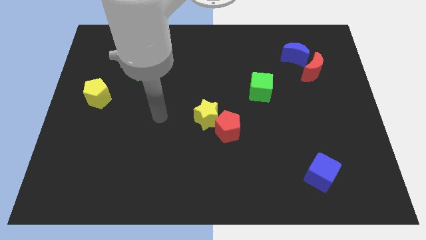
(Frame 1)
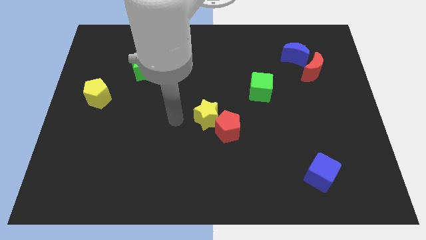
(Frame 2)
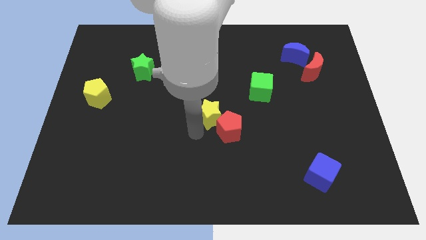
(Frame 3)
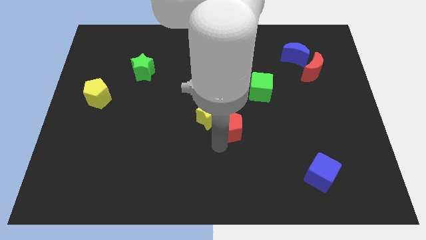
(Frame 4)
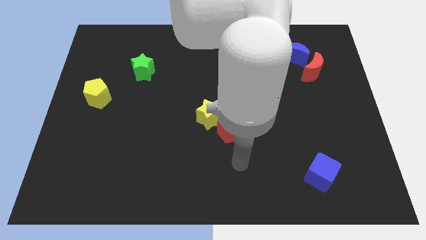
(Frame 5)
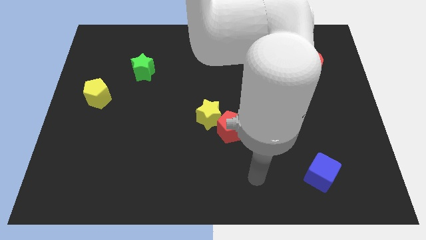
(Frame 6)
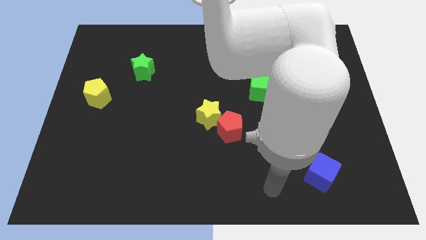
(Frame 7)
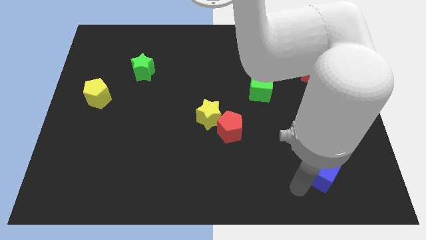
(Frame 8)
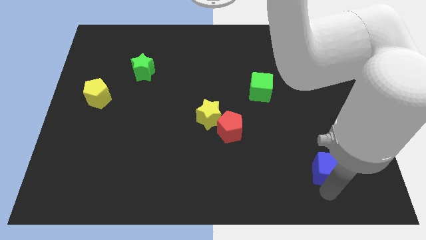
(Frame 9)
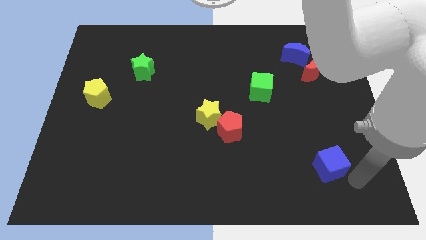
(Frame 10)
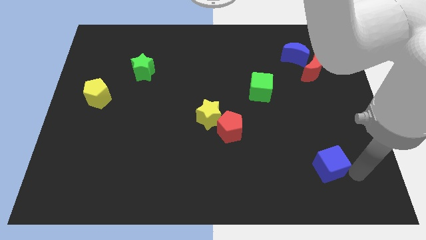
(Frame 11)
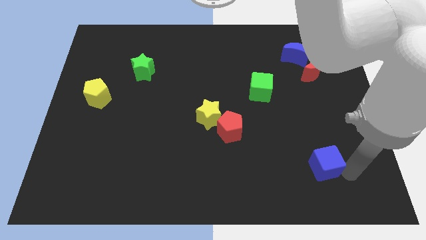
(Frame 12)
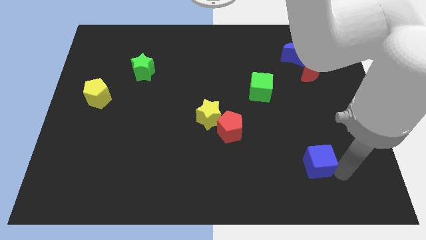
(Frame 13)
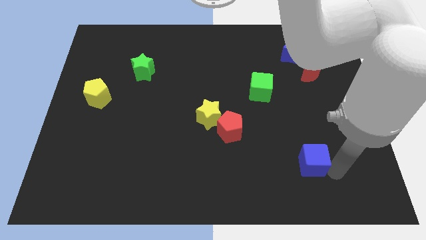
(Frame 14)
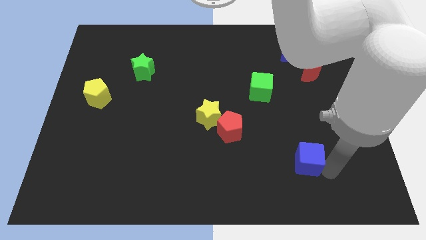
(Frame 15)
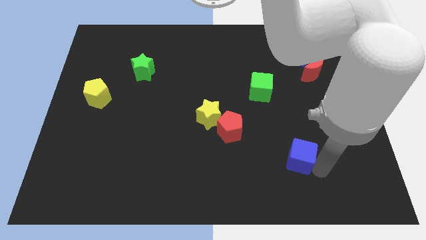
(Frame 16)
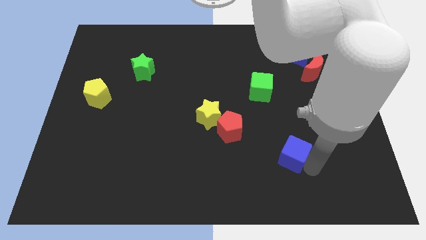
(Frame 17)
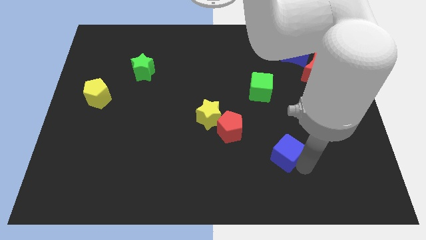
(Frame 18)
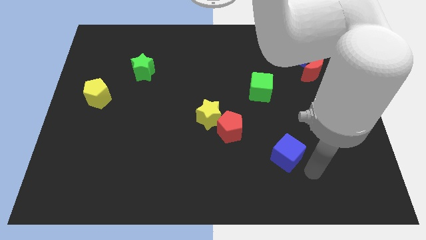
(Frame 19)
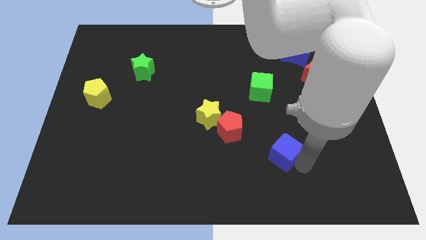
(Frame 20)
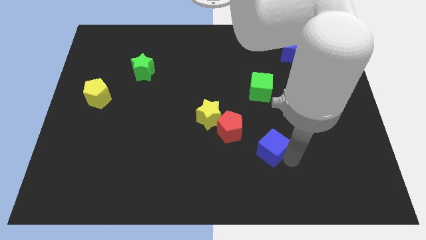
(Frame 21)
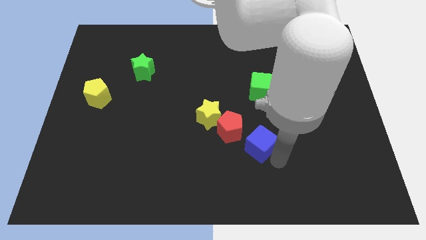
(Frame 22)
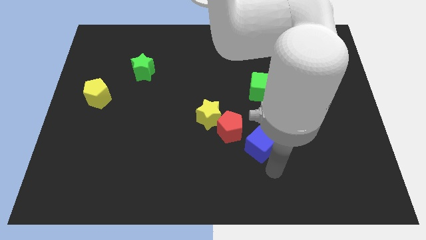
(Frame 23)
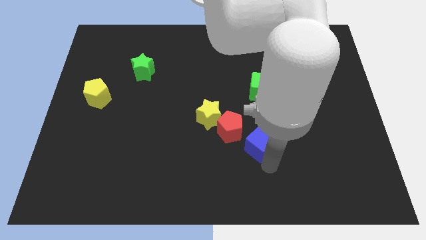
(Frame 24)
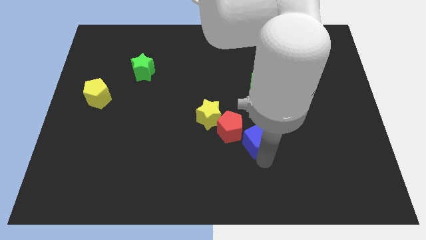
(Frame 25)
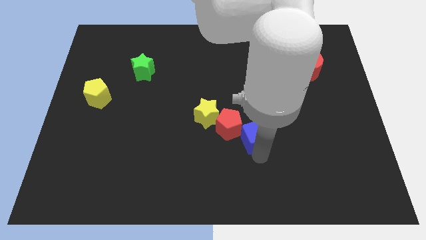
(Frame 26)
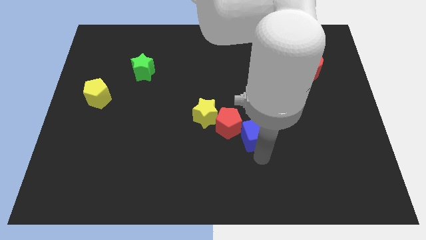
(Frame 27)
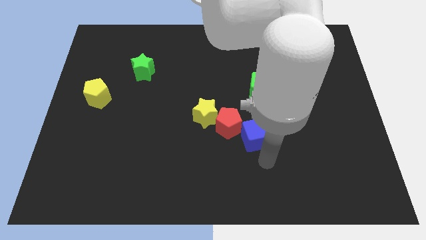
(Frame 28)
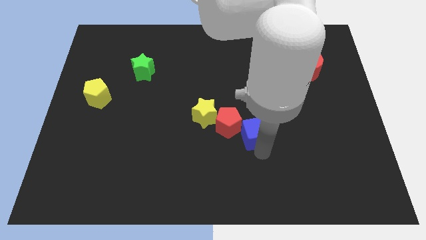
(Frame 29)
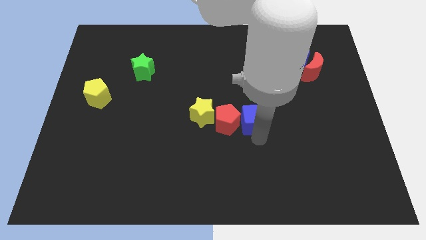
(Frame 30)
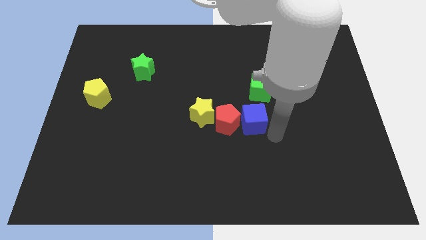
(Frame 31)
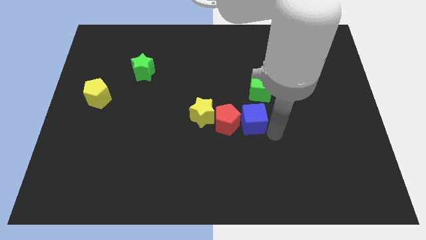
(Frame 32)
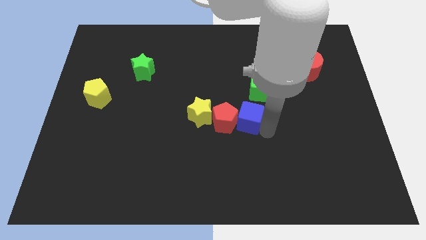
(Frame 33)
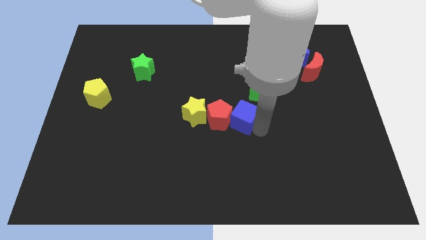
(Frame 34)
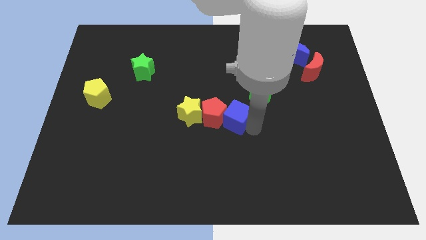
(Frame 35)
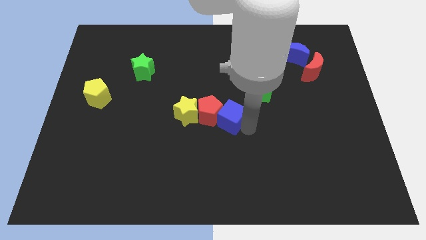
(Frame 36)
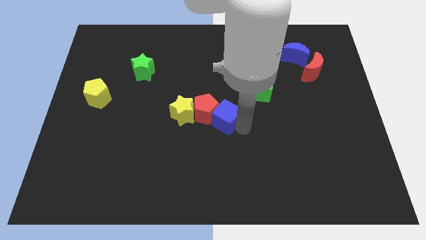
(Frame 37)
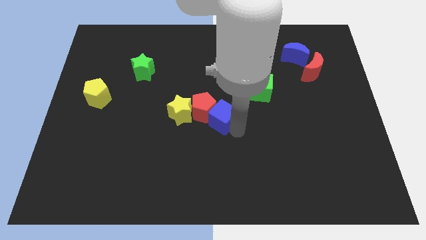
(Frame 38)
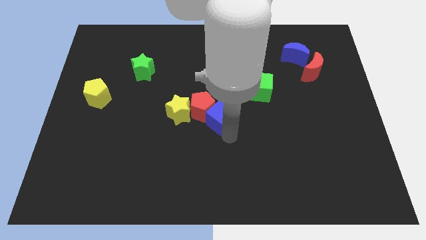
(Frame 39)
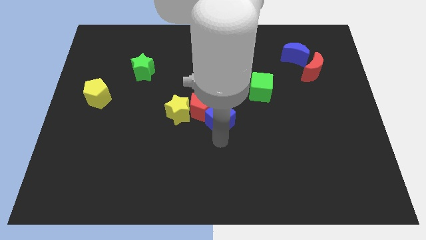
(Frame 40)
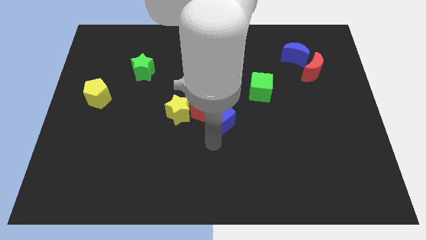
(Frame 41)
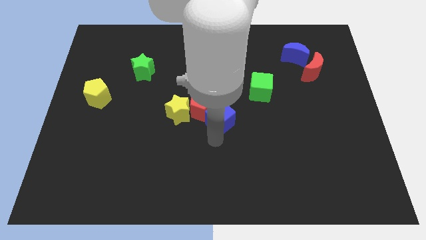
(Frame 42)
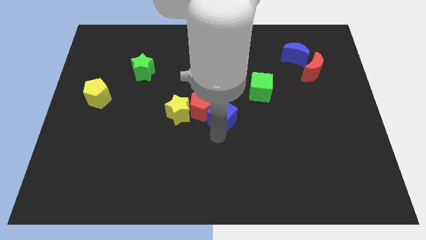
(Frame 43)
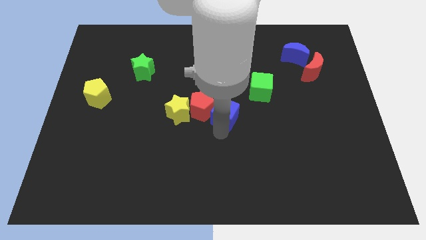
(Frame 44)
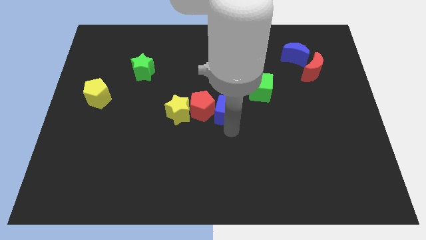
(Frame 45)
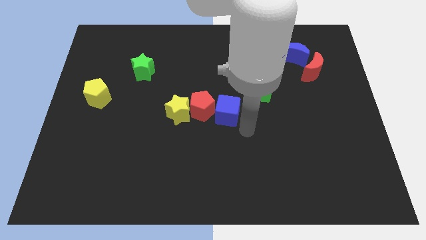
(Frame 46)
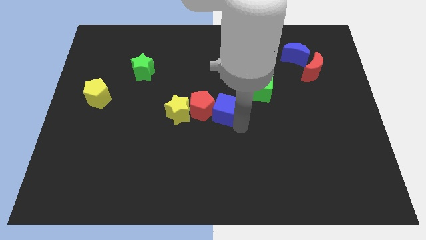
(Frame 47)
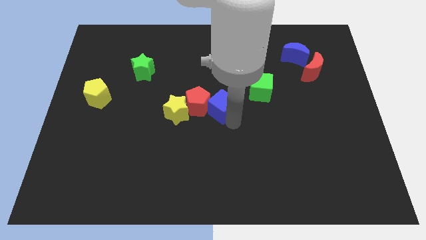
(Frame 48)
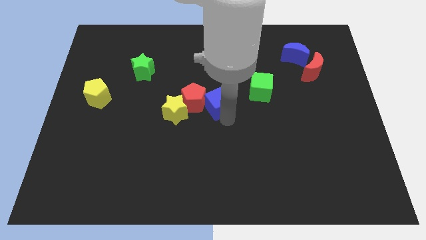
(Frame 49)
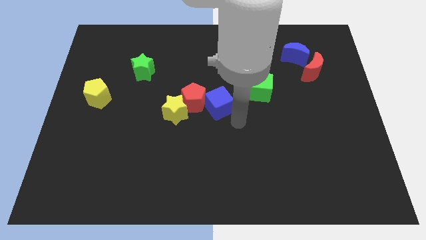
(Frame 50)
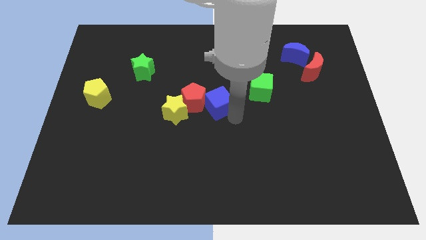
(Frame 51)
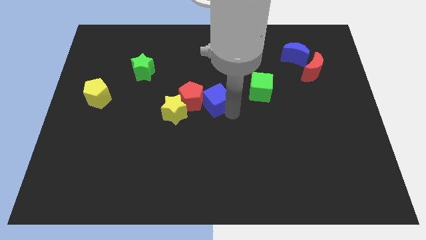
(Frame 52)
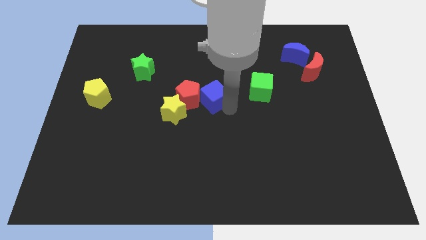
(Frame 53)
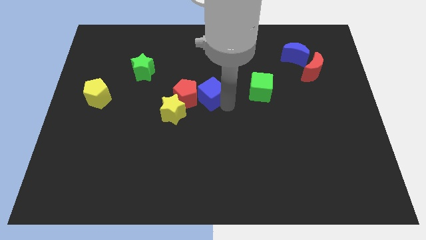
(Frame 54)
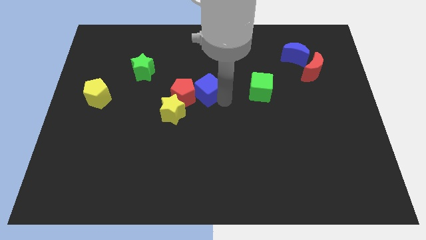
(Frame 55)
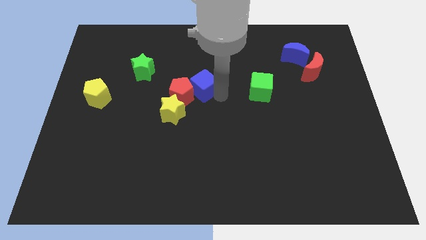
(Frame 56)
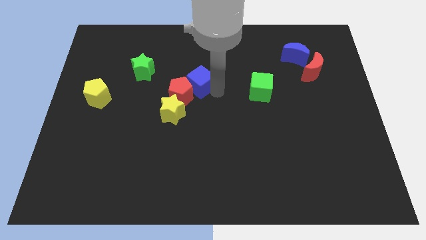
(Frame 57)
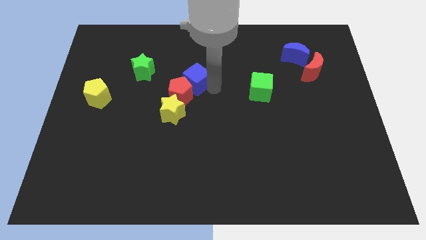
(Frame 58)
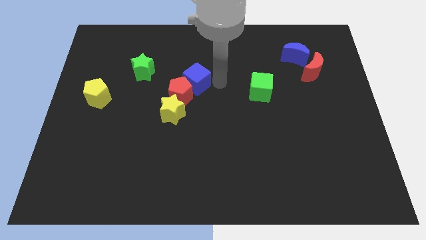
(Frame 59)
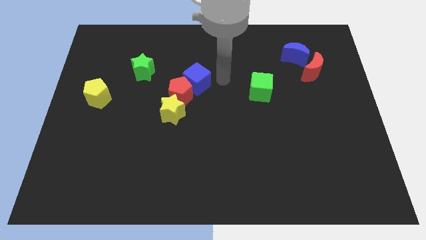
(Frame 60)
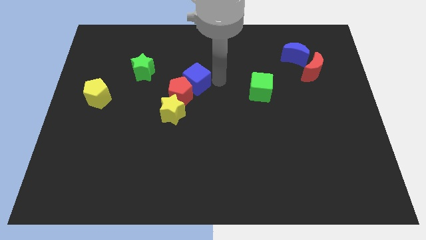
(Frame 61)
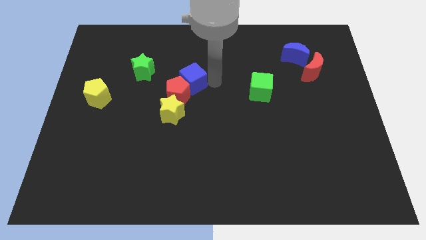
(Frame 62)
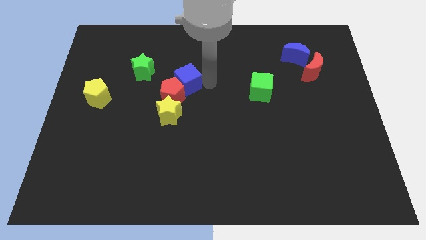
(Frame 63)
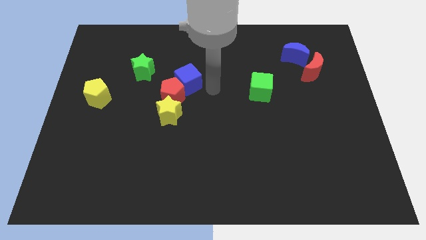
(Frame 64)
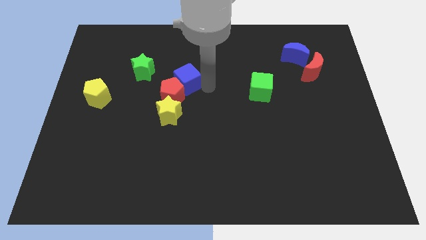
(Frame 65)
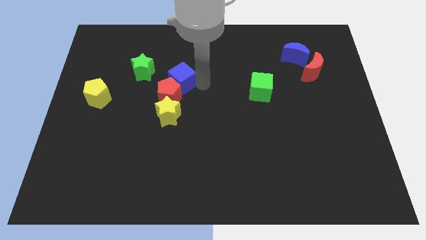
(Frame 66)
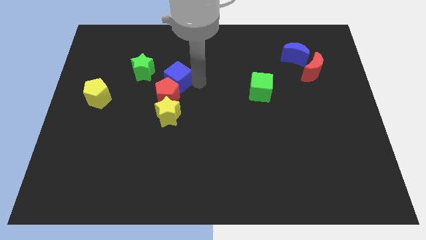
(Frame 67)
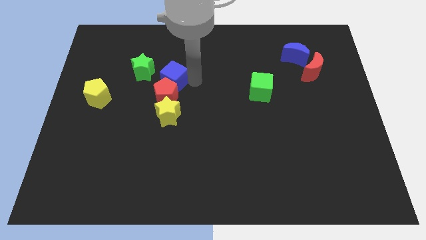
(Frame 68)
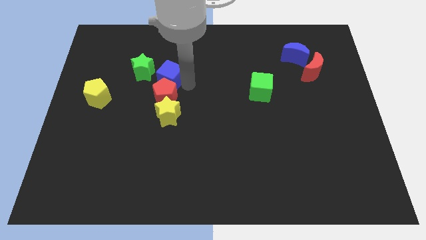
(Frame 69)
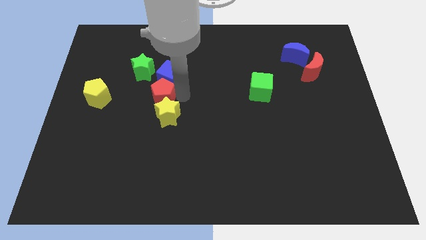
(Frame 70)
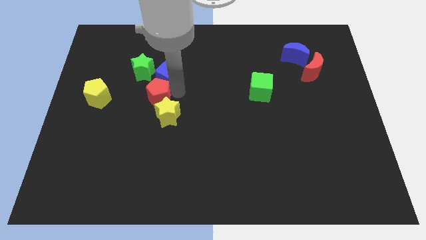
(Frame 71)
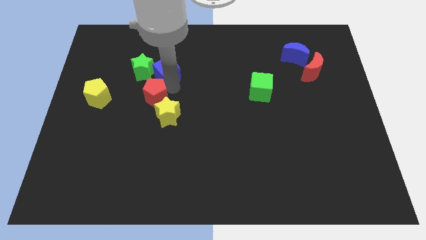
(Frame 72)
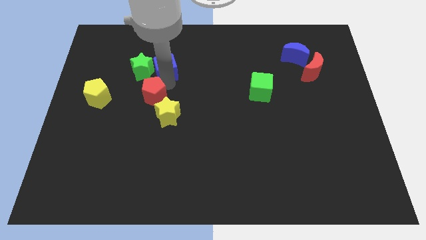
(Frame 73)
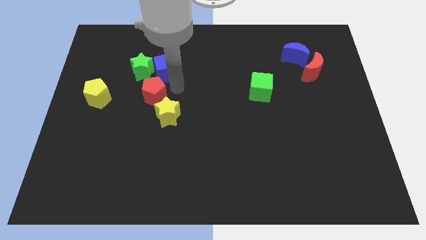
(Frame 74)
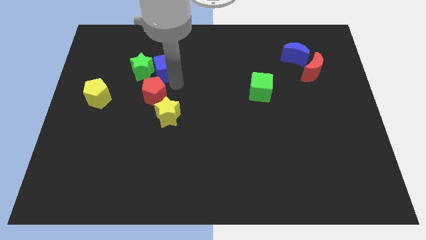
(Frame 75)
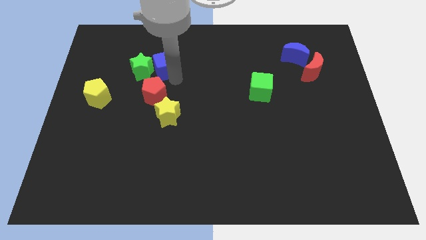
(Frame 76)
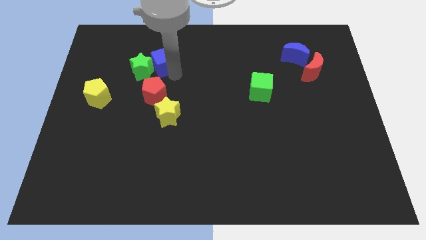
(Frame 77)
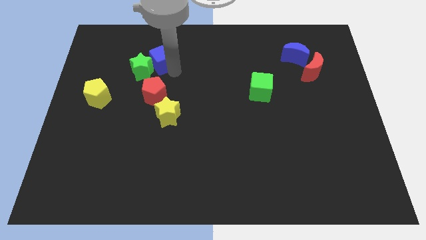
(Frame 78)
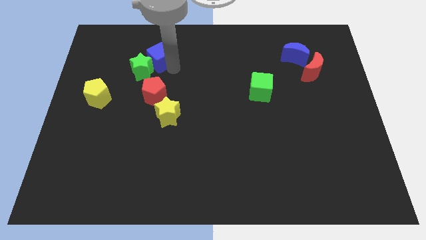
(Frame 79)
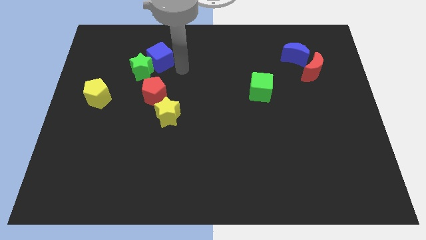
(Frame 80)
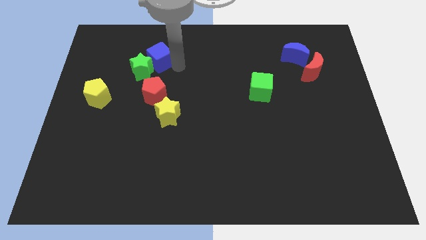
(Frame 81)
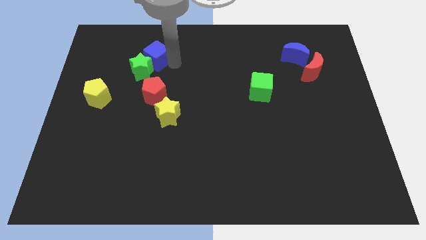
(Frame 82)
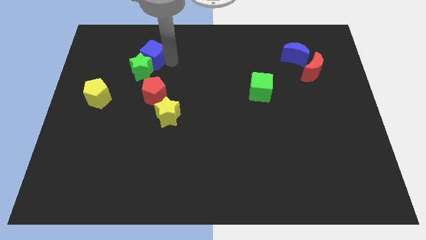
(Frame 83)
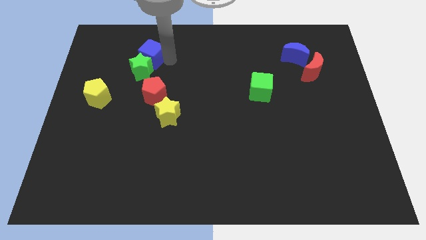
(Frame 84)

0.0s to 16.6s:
push the blue cube to the top left side of the green star
